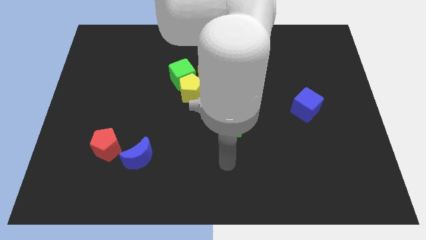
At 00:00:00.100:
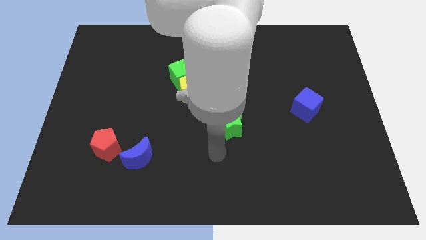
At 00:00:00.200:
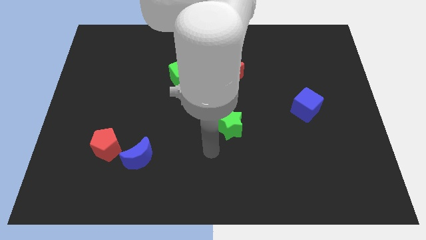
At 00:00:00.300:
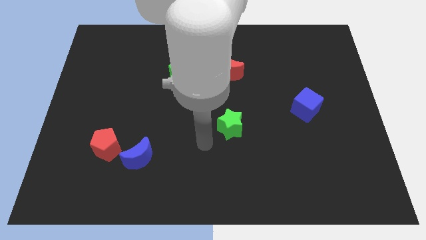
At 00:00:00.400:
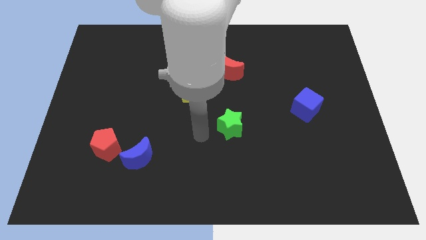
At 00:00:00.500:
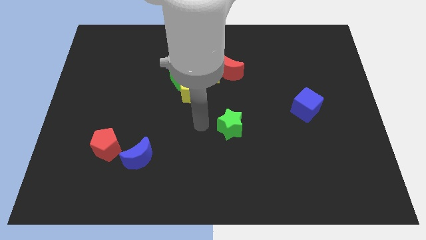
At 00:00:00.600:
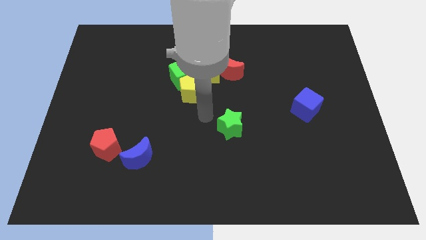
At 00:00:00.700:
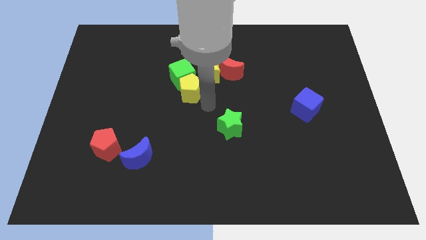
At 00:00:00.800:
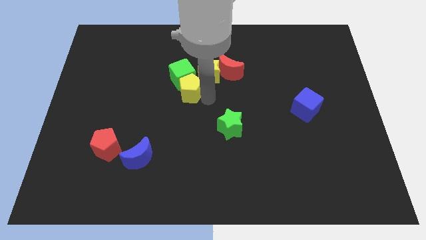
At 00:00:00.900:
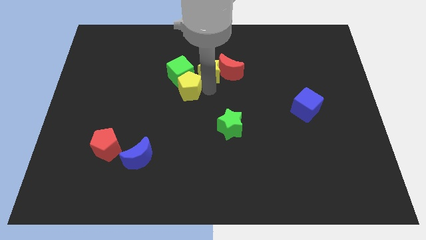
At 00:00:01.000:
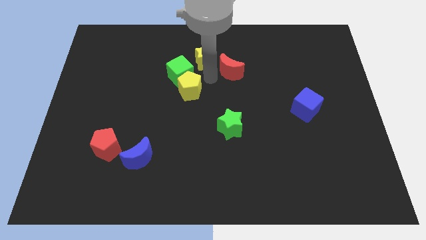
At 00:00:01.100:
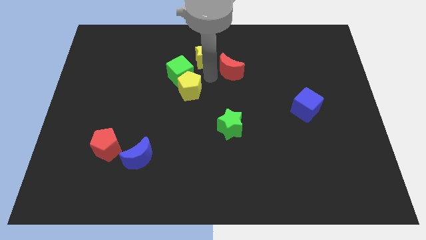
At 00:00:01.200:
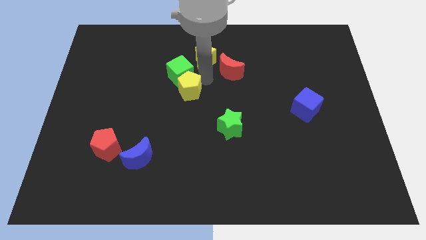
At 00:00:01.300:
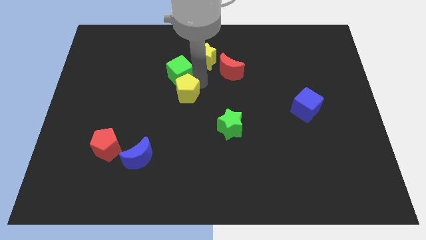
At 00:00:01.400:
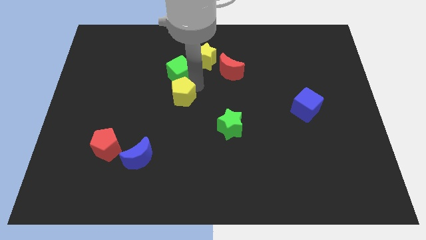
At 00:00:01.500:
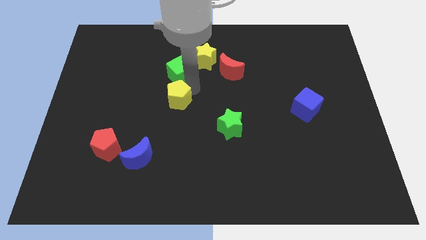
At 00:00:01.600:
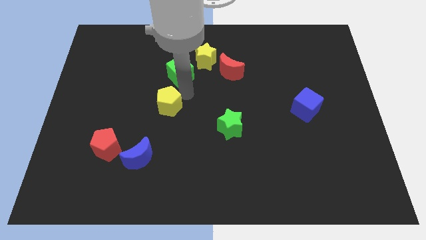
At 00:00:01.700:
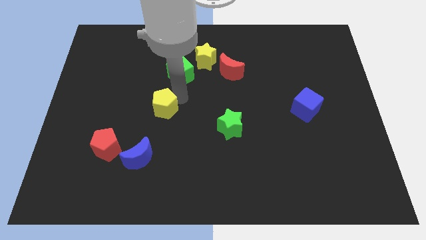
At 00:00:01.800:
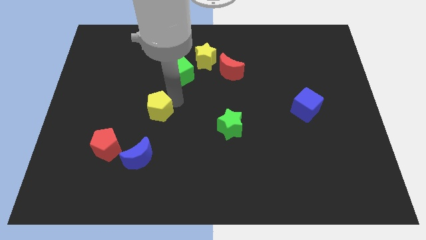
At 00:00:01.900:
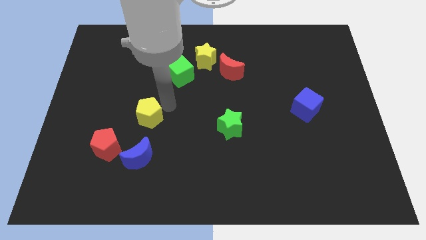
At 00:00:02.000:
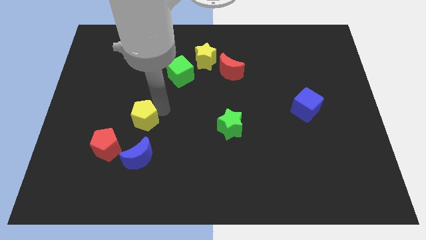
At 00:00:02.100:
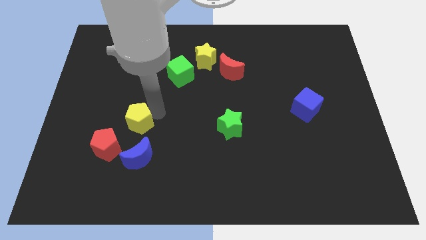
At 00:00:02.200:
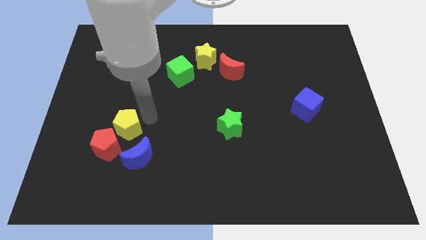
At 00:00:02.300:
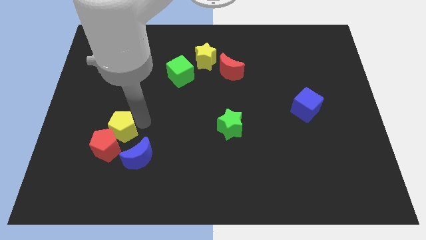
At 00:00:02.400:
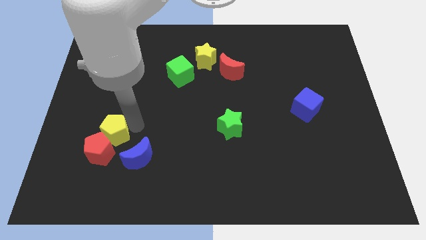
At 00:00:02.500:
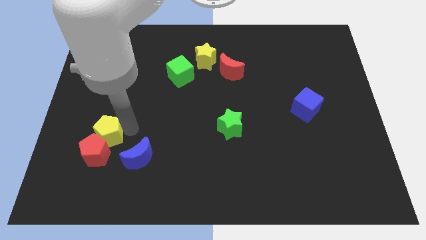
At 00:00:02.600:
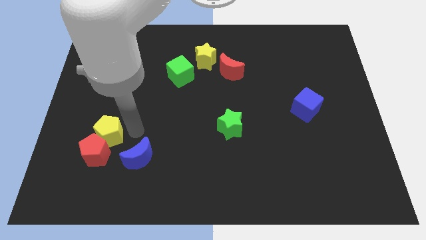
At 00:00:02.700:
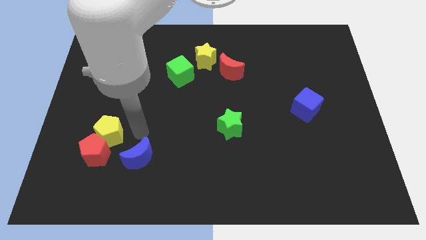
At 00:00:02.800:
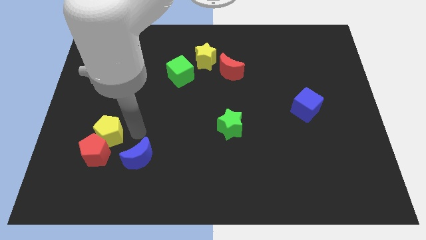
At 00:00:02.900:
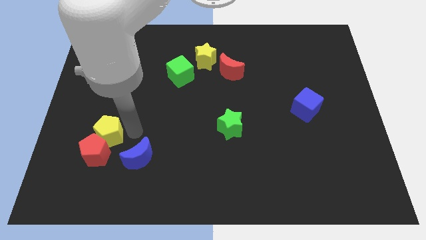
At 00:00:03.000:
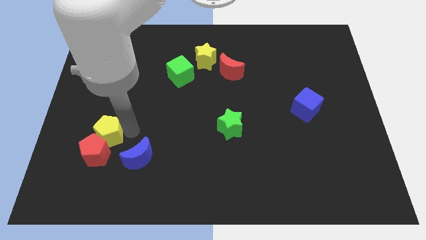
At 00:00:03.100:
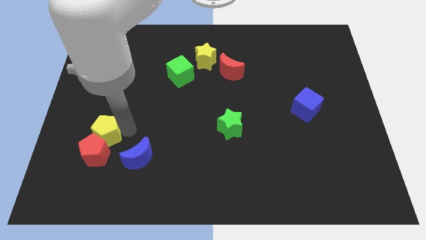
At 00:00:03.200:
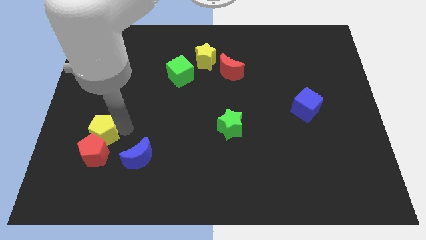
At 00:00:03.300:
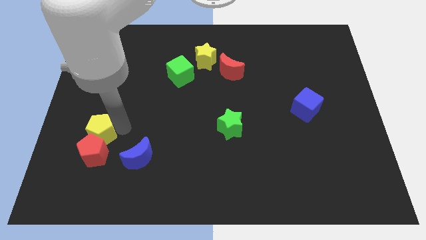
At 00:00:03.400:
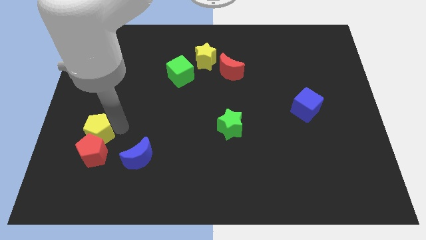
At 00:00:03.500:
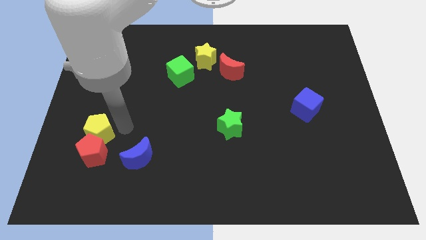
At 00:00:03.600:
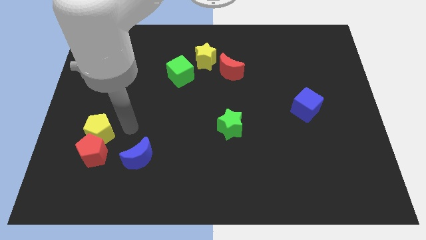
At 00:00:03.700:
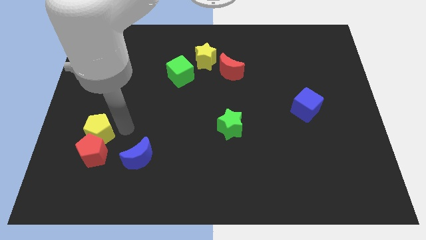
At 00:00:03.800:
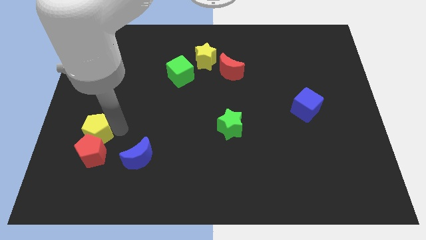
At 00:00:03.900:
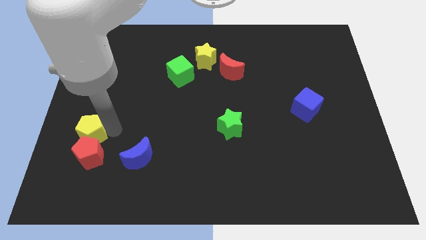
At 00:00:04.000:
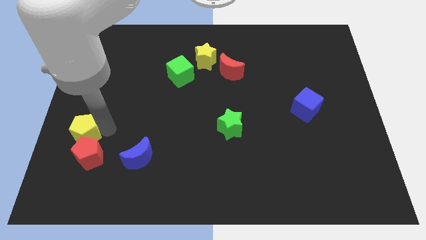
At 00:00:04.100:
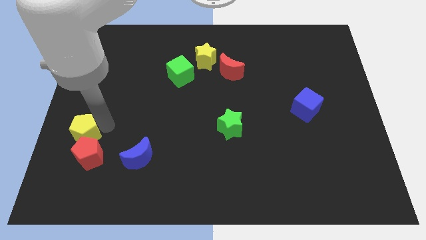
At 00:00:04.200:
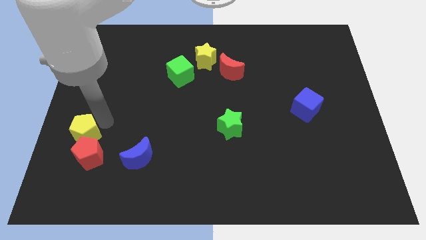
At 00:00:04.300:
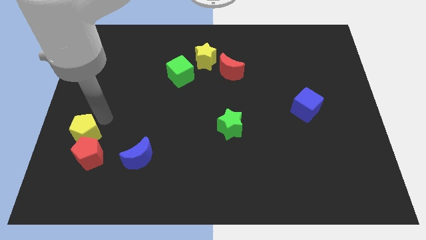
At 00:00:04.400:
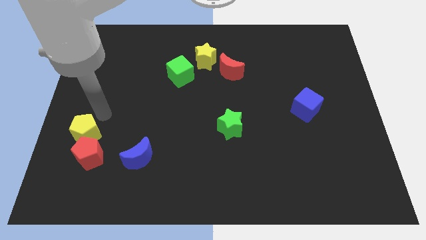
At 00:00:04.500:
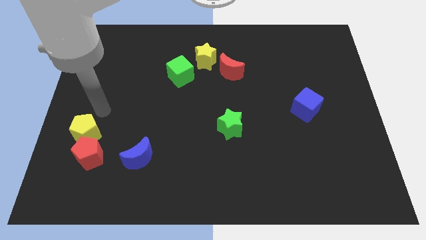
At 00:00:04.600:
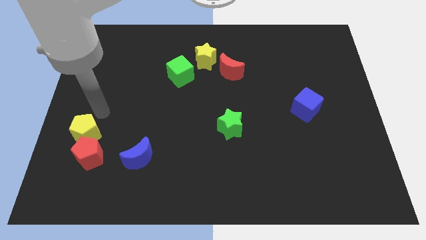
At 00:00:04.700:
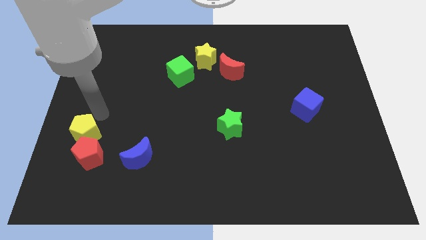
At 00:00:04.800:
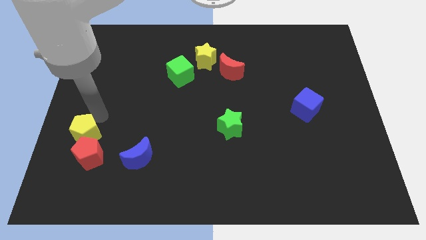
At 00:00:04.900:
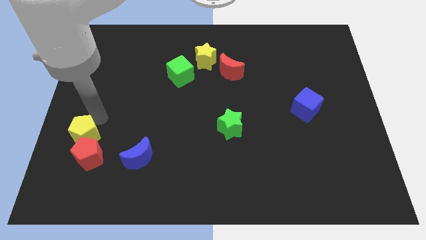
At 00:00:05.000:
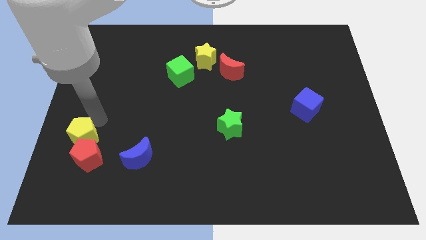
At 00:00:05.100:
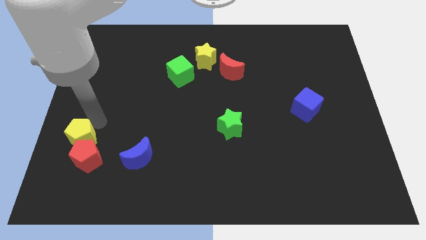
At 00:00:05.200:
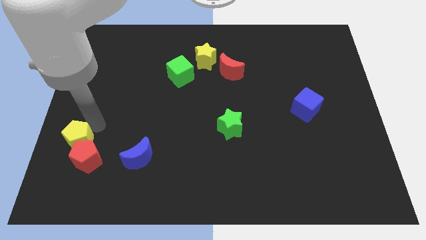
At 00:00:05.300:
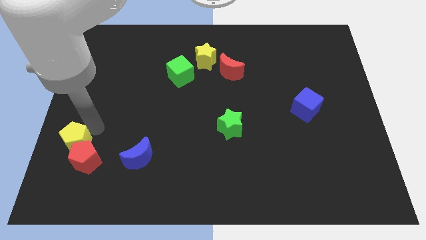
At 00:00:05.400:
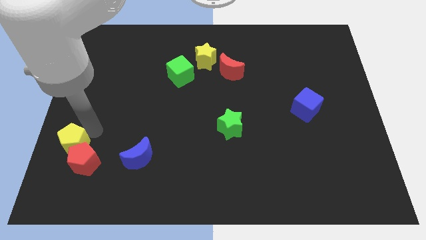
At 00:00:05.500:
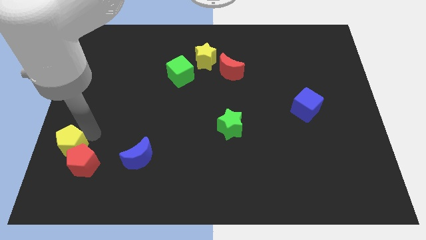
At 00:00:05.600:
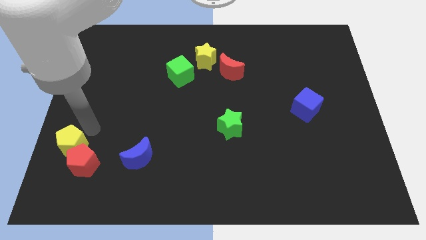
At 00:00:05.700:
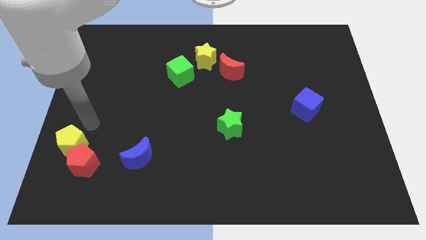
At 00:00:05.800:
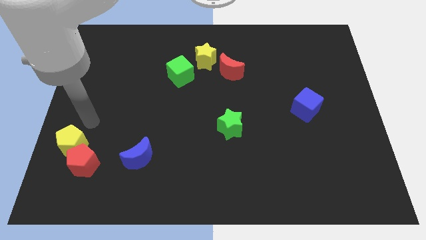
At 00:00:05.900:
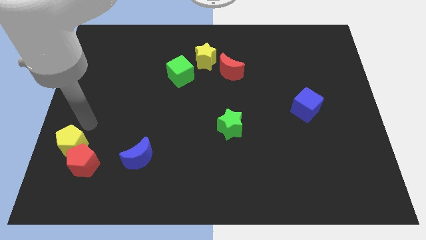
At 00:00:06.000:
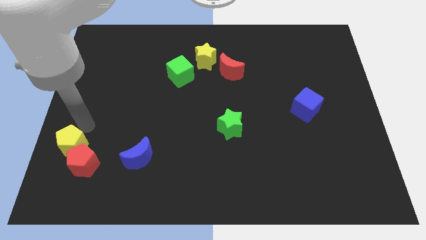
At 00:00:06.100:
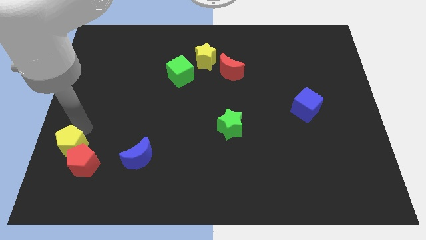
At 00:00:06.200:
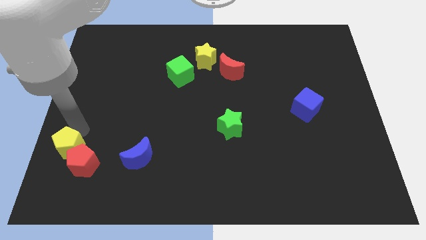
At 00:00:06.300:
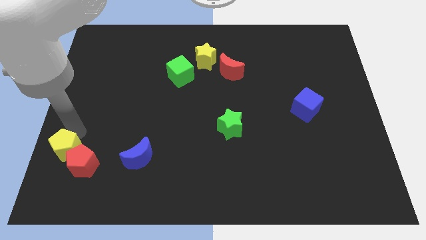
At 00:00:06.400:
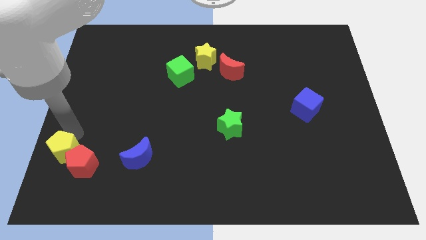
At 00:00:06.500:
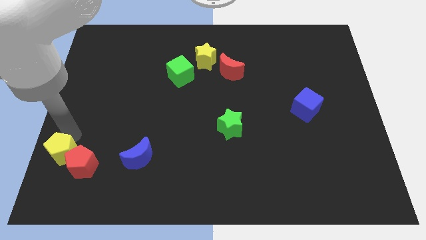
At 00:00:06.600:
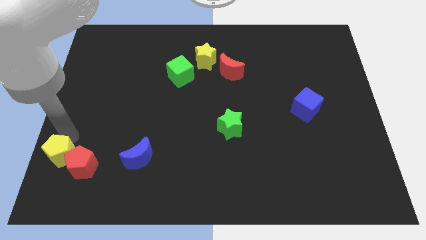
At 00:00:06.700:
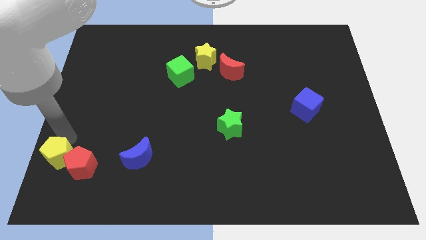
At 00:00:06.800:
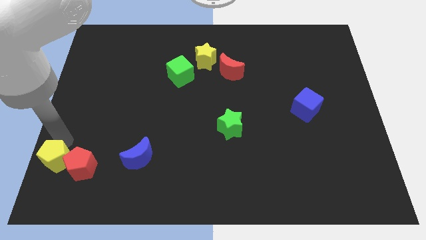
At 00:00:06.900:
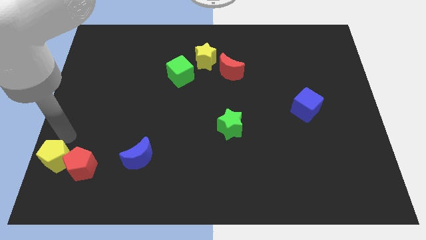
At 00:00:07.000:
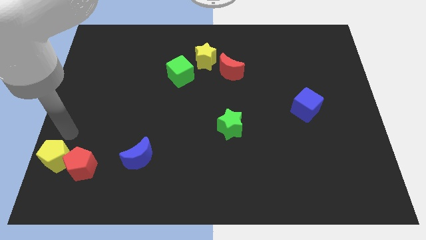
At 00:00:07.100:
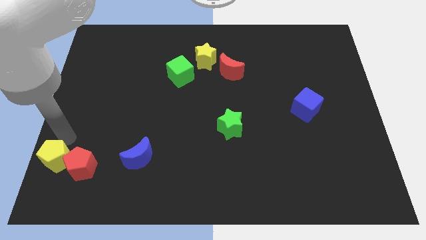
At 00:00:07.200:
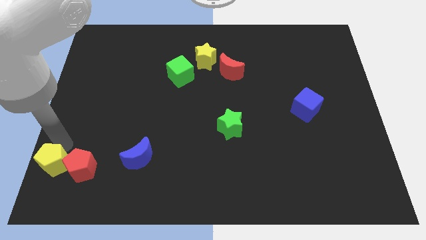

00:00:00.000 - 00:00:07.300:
move the yellow pentagon to the bottom left of the board
